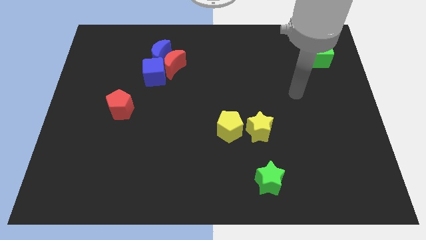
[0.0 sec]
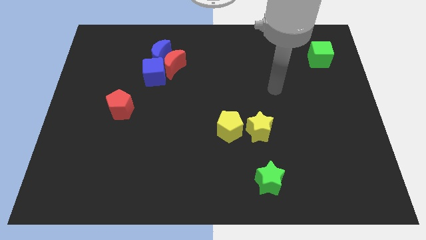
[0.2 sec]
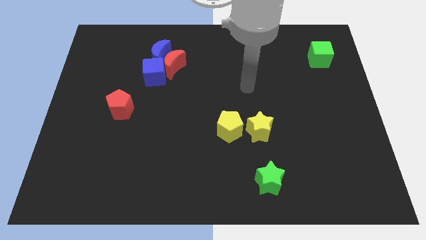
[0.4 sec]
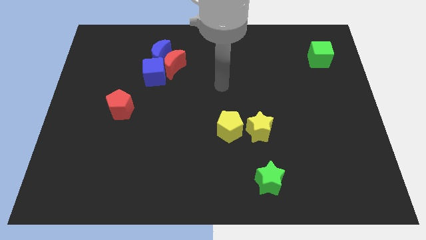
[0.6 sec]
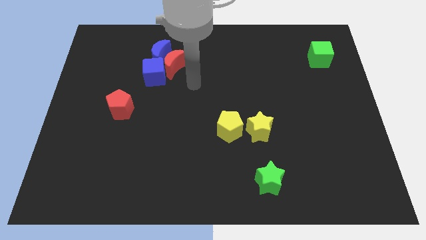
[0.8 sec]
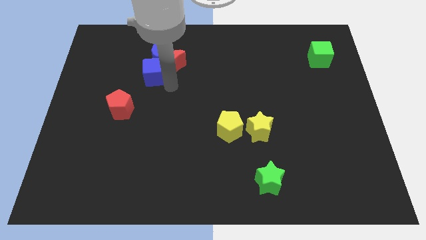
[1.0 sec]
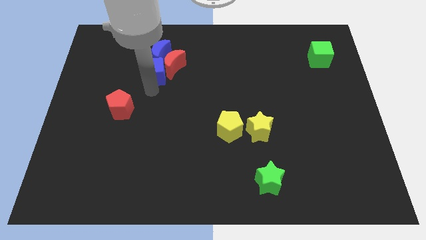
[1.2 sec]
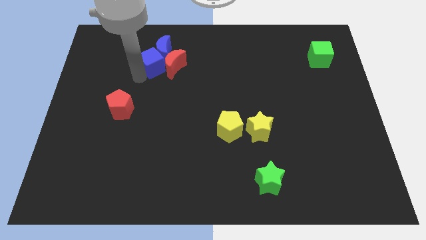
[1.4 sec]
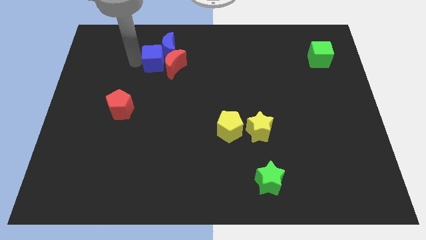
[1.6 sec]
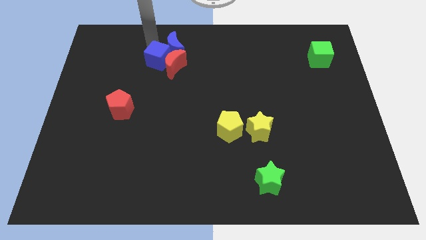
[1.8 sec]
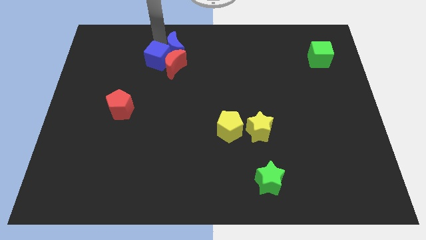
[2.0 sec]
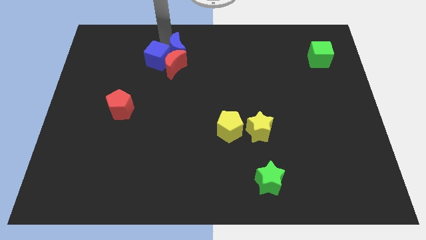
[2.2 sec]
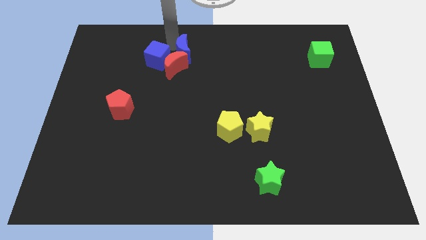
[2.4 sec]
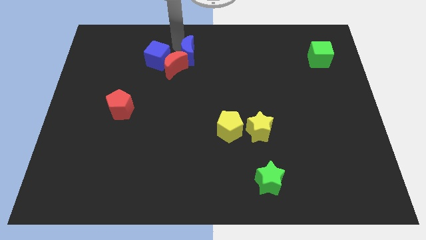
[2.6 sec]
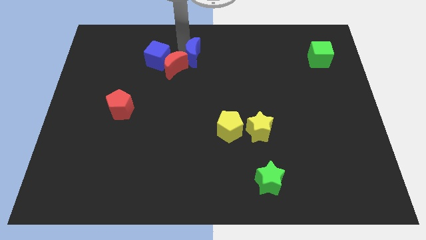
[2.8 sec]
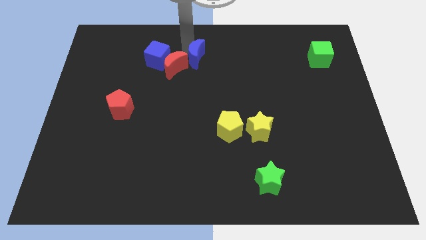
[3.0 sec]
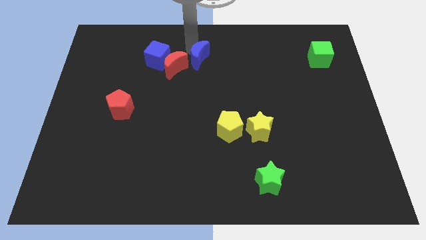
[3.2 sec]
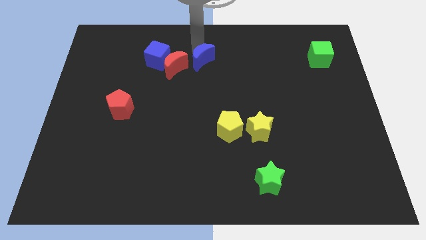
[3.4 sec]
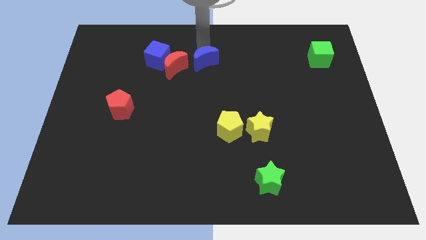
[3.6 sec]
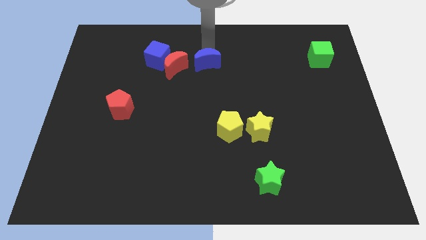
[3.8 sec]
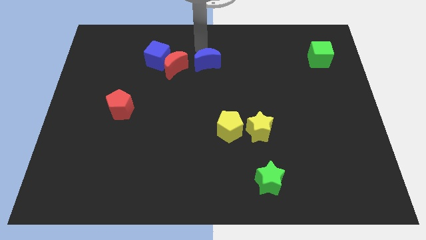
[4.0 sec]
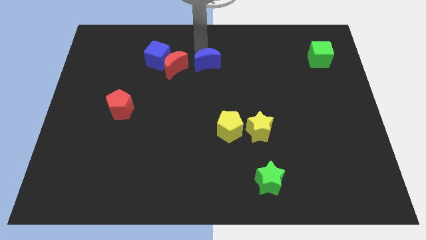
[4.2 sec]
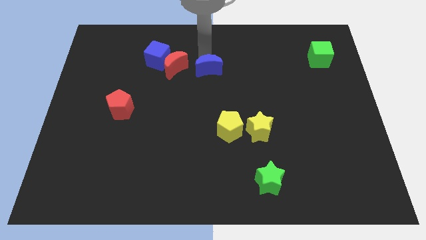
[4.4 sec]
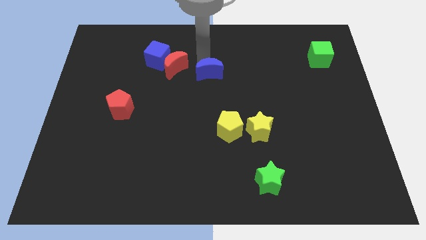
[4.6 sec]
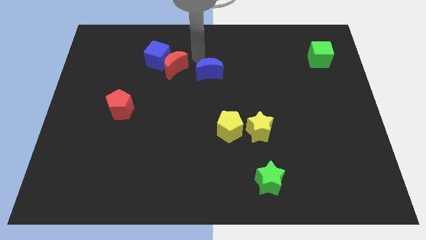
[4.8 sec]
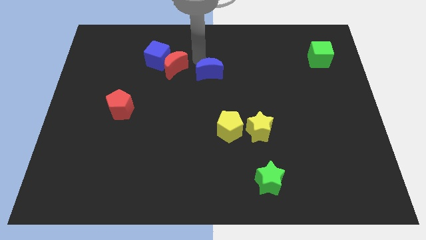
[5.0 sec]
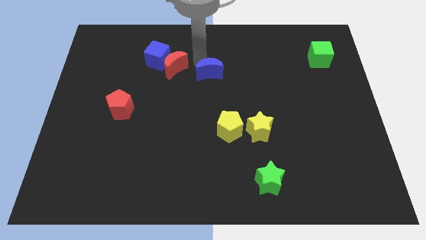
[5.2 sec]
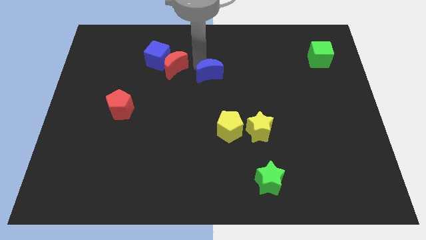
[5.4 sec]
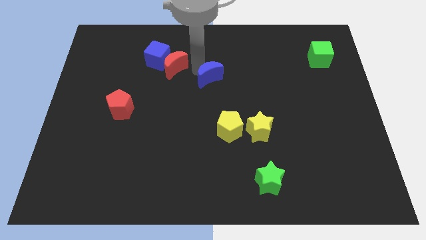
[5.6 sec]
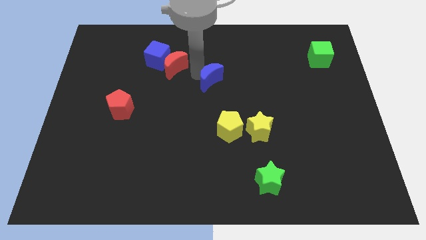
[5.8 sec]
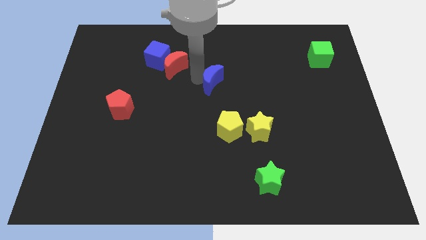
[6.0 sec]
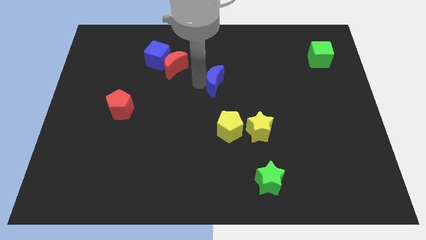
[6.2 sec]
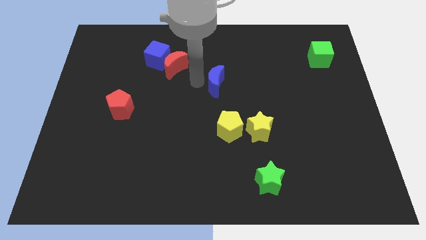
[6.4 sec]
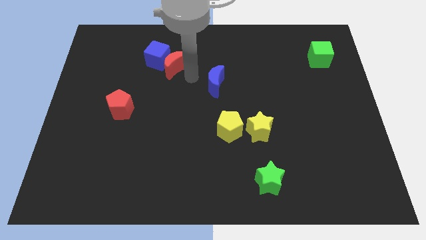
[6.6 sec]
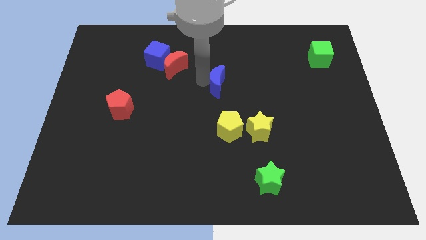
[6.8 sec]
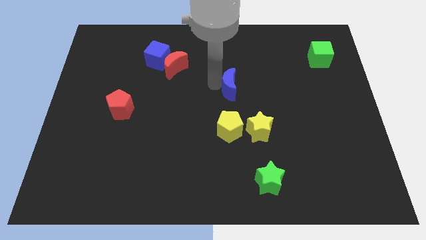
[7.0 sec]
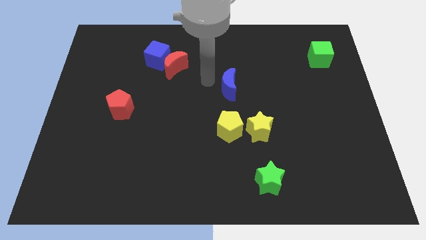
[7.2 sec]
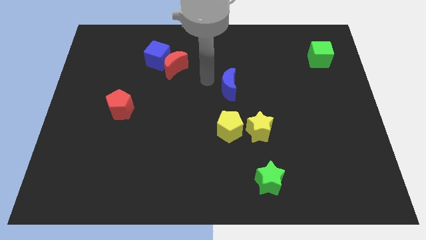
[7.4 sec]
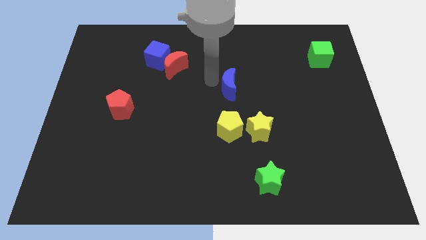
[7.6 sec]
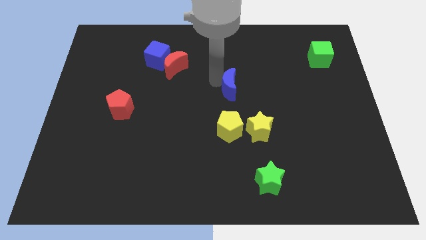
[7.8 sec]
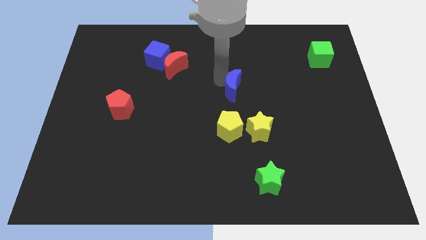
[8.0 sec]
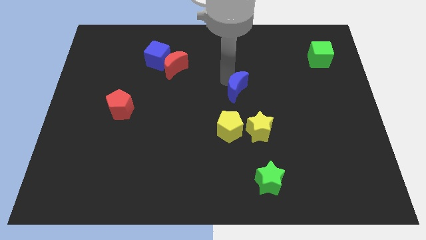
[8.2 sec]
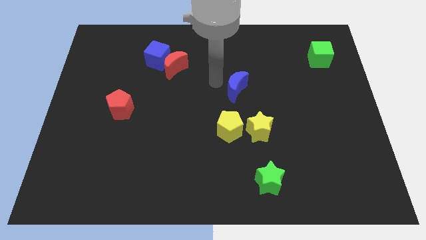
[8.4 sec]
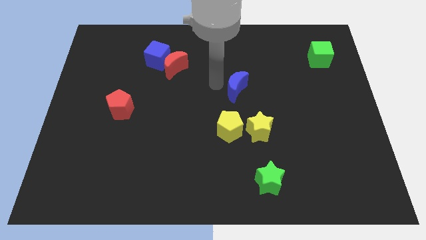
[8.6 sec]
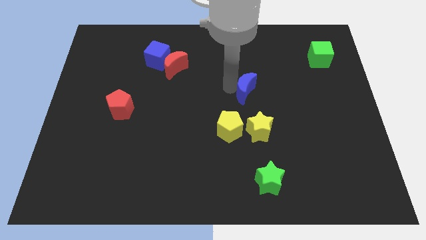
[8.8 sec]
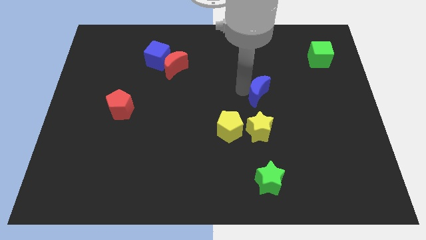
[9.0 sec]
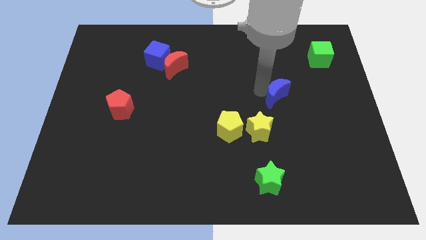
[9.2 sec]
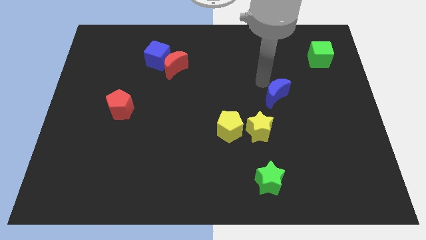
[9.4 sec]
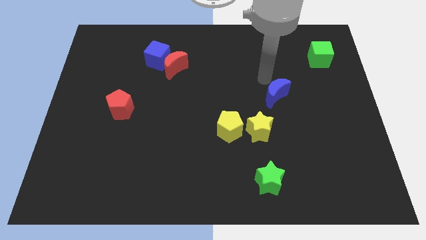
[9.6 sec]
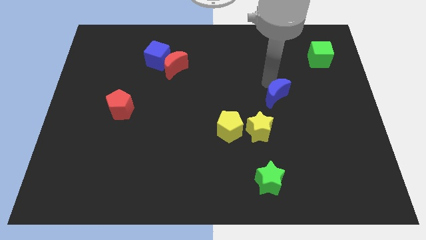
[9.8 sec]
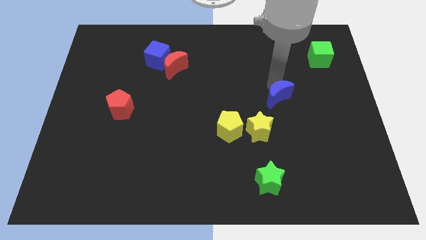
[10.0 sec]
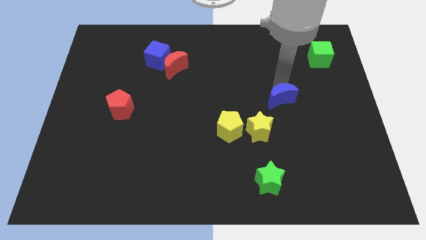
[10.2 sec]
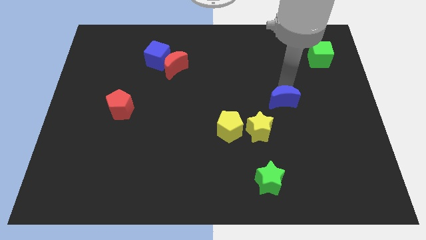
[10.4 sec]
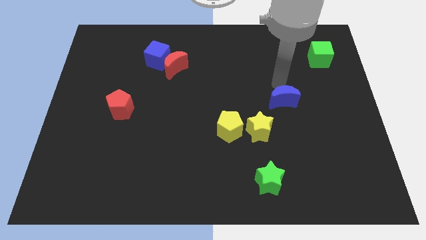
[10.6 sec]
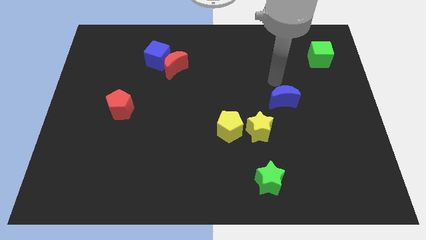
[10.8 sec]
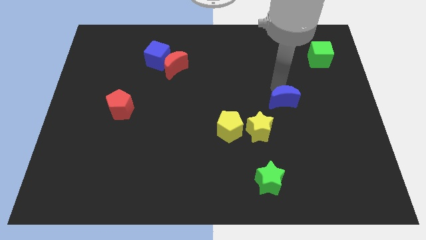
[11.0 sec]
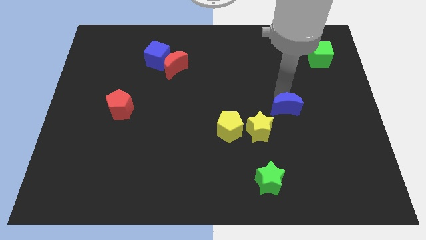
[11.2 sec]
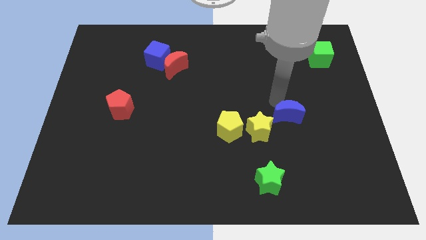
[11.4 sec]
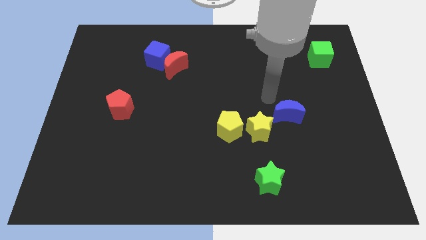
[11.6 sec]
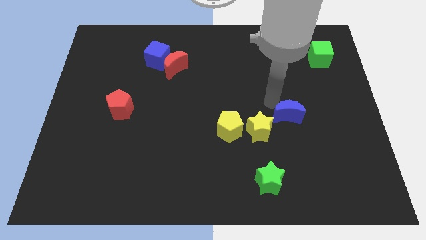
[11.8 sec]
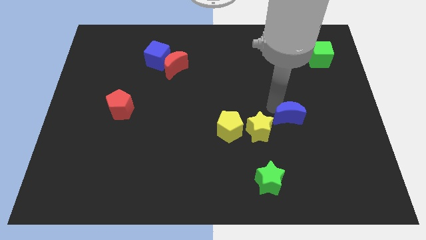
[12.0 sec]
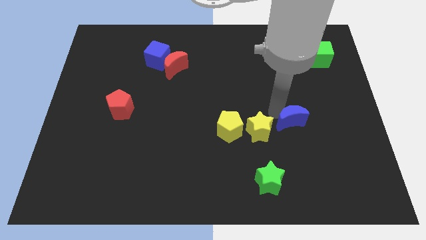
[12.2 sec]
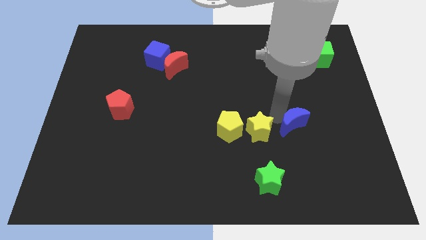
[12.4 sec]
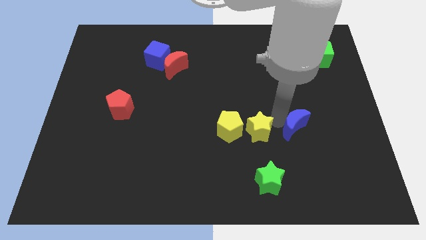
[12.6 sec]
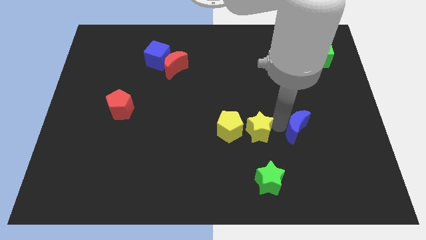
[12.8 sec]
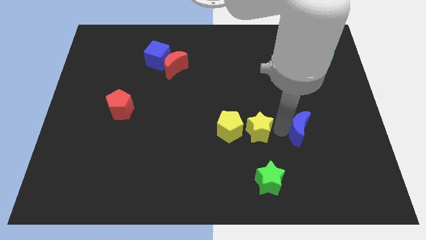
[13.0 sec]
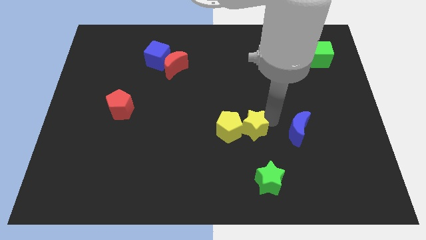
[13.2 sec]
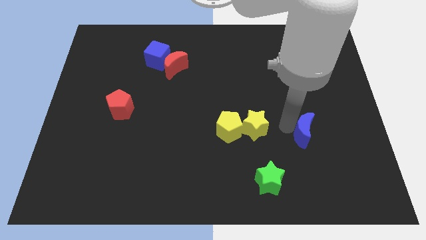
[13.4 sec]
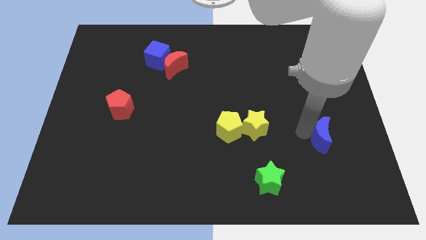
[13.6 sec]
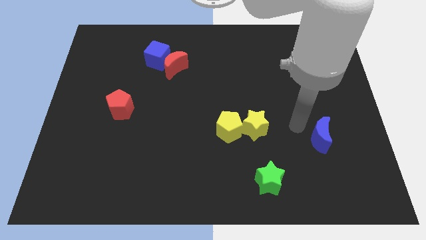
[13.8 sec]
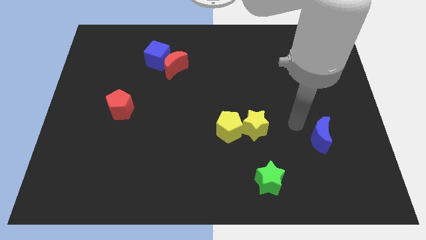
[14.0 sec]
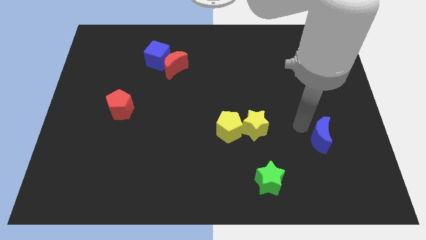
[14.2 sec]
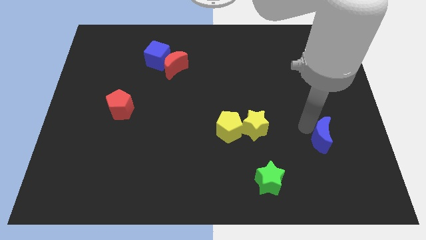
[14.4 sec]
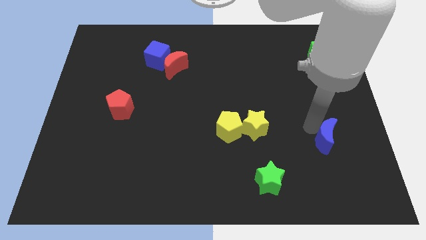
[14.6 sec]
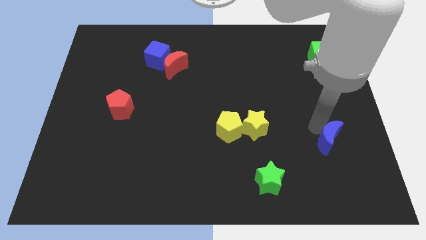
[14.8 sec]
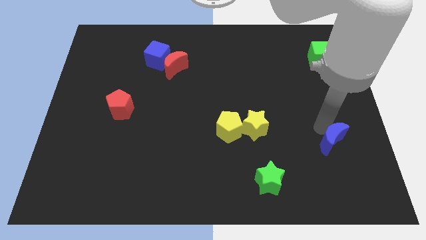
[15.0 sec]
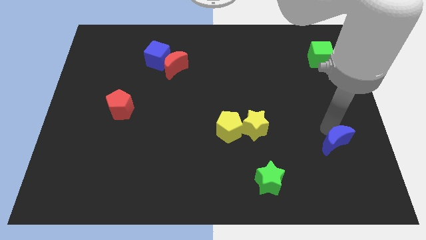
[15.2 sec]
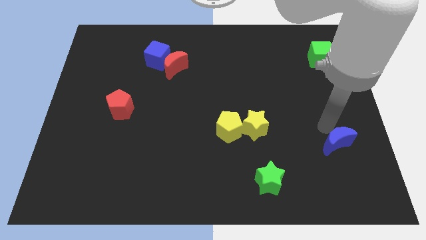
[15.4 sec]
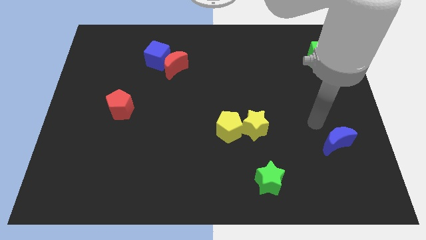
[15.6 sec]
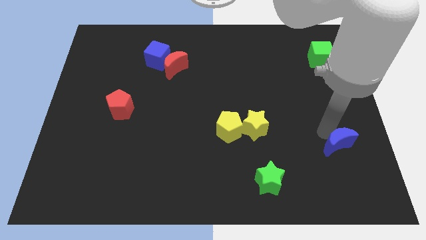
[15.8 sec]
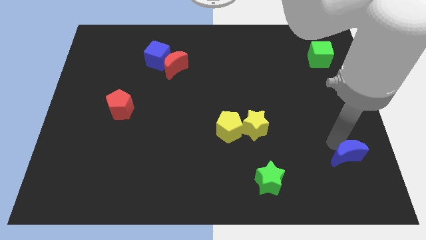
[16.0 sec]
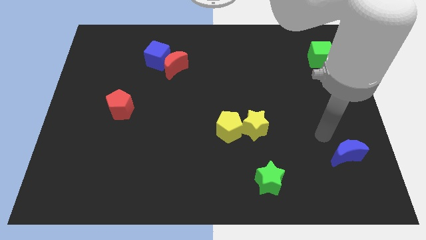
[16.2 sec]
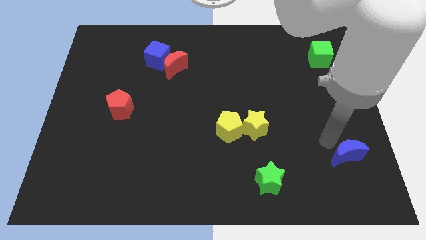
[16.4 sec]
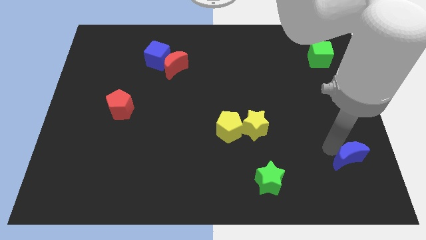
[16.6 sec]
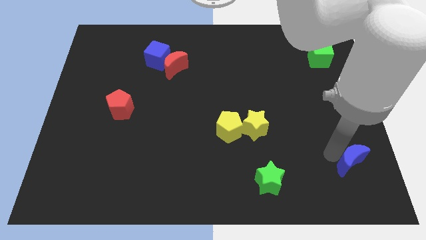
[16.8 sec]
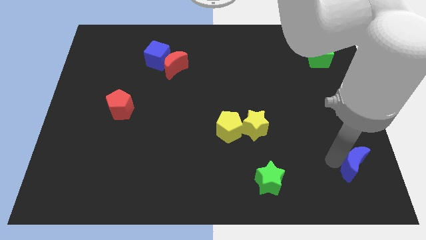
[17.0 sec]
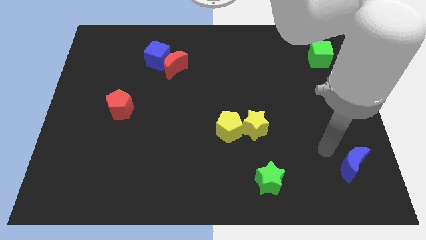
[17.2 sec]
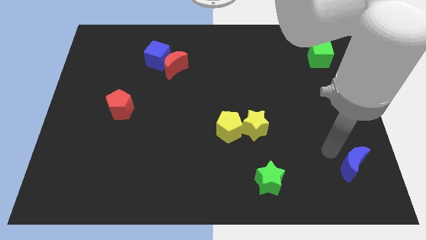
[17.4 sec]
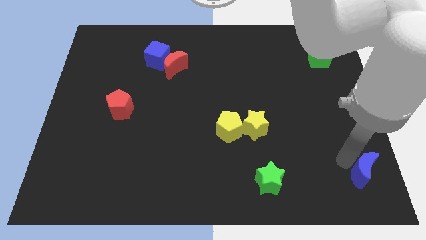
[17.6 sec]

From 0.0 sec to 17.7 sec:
move the blue moon to the bottom right of the board
